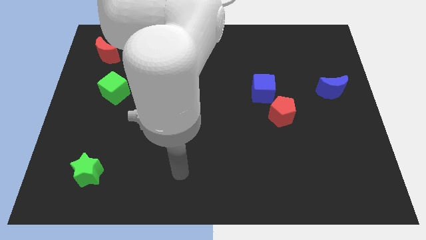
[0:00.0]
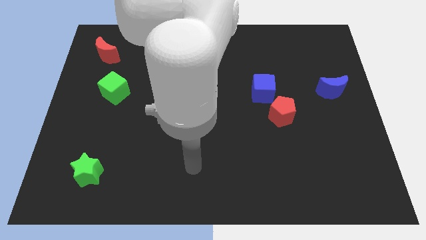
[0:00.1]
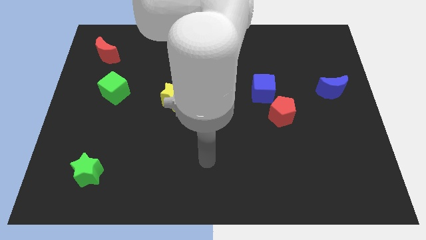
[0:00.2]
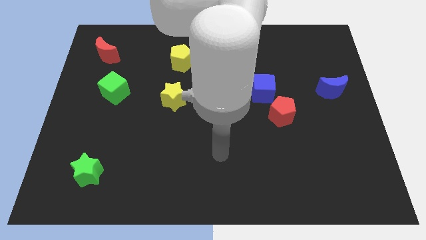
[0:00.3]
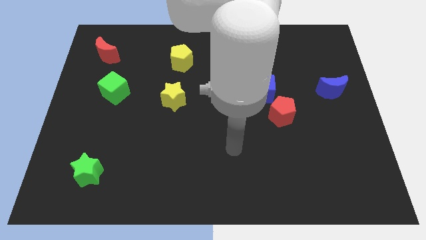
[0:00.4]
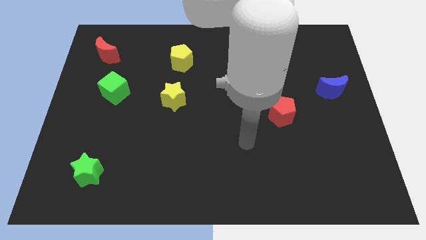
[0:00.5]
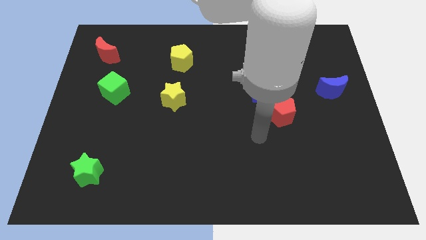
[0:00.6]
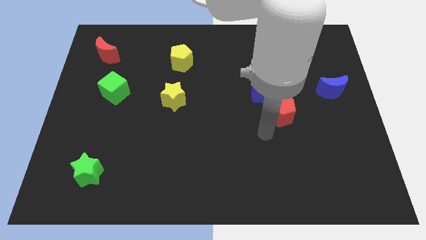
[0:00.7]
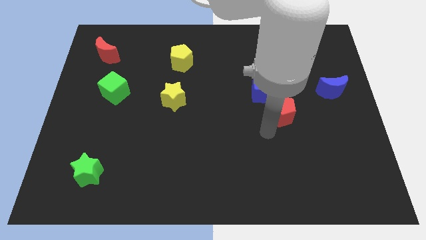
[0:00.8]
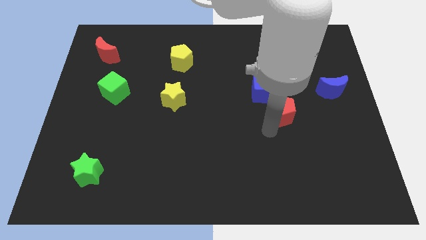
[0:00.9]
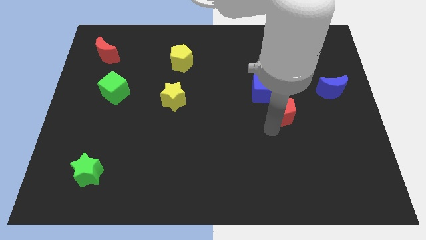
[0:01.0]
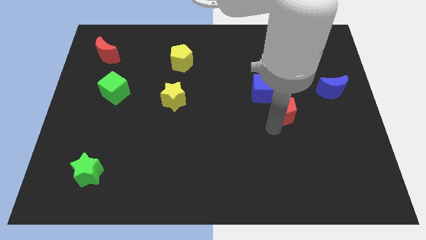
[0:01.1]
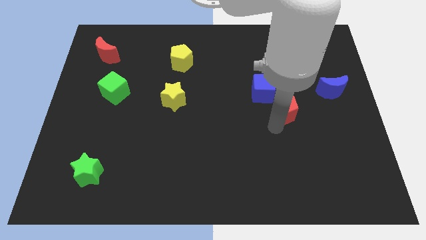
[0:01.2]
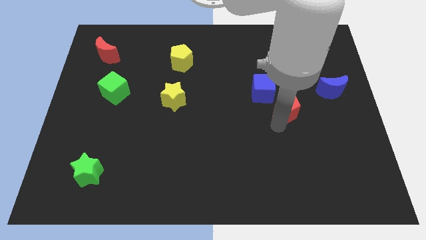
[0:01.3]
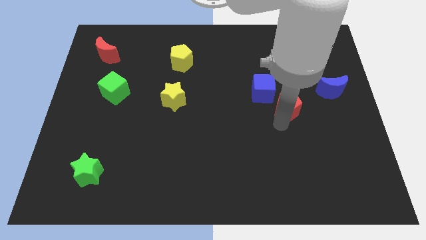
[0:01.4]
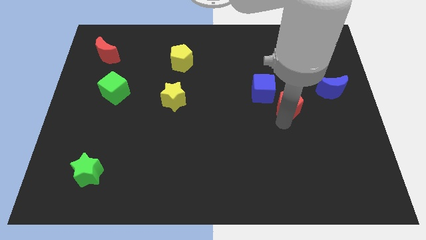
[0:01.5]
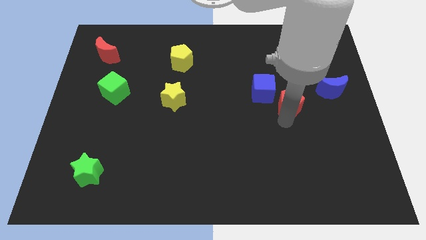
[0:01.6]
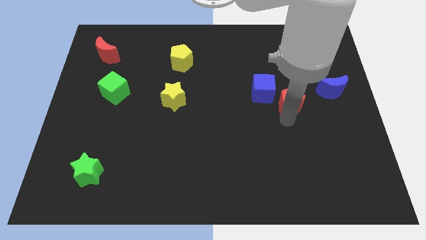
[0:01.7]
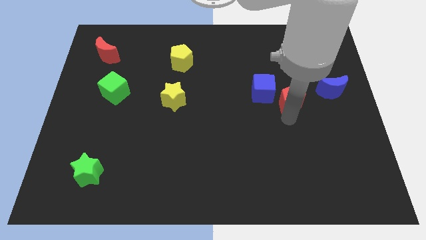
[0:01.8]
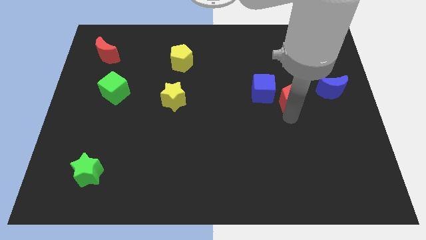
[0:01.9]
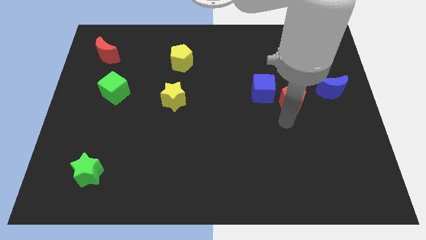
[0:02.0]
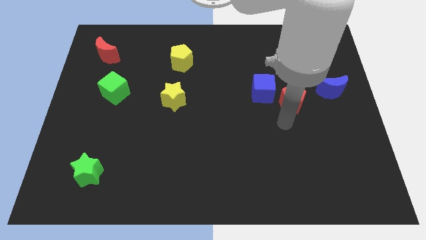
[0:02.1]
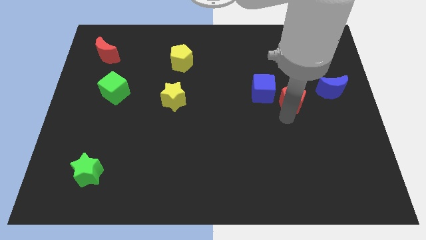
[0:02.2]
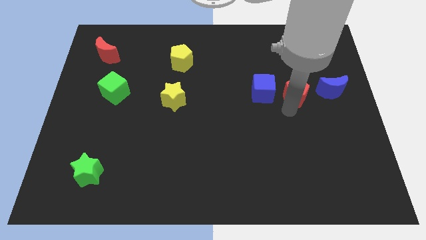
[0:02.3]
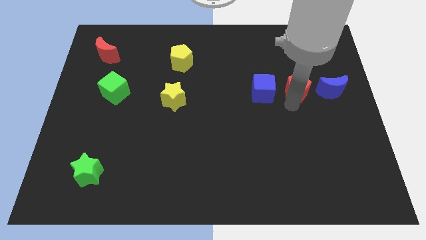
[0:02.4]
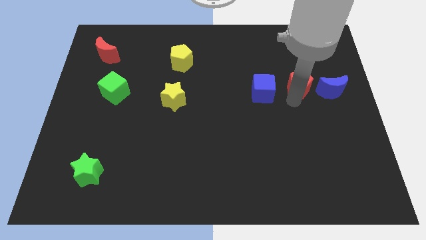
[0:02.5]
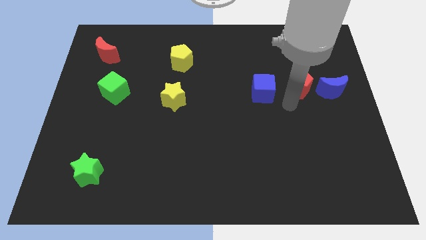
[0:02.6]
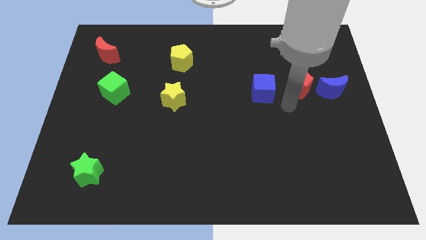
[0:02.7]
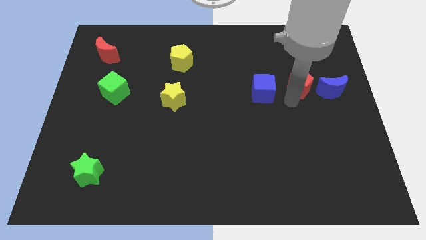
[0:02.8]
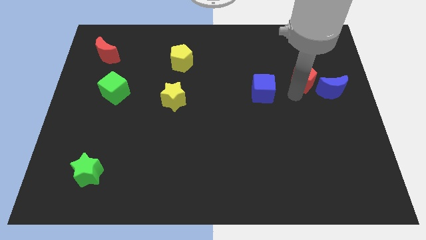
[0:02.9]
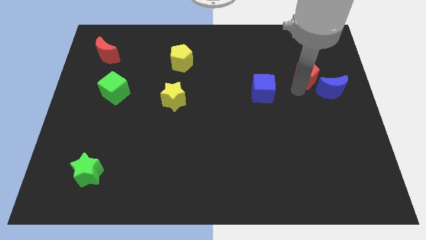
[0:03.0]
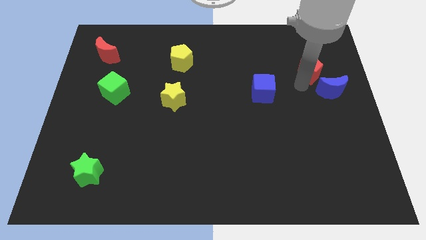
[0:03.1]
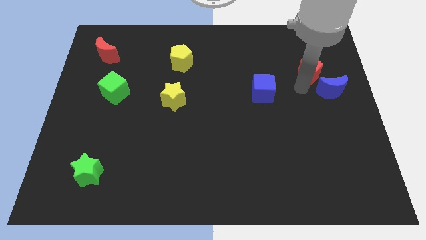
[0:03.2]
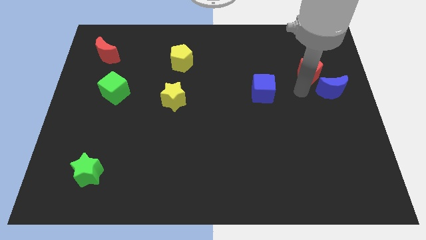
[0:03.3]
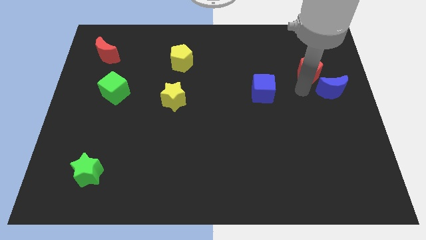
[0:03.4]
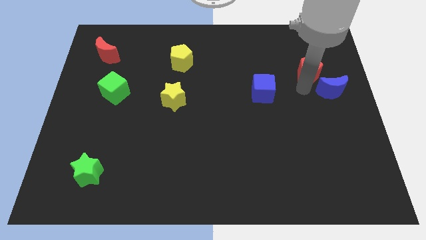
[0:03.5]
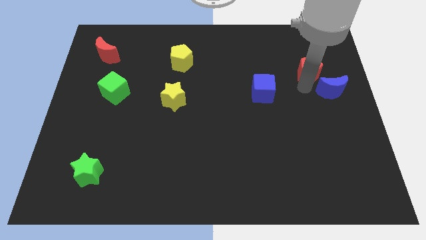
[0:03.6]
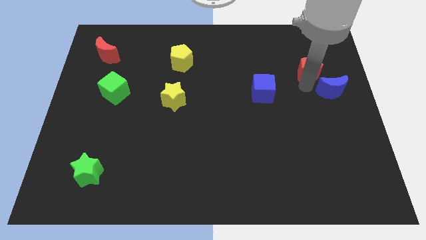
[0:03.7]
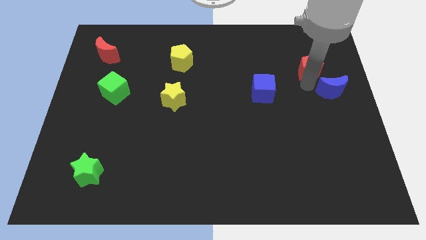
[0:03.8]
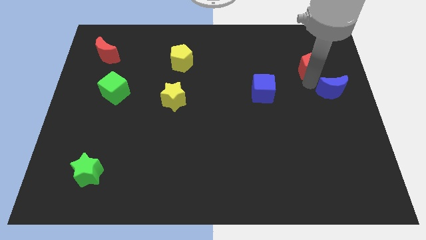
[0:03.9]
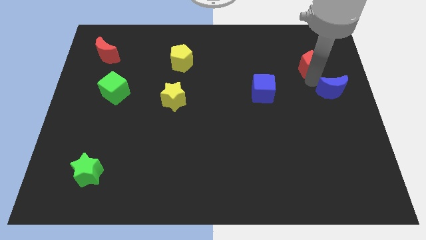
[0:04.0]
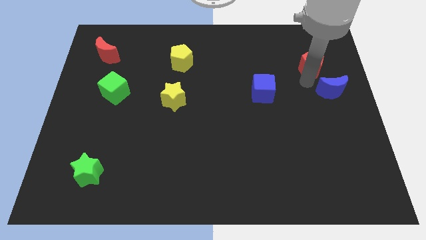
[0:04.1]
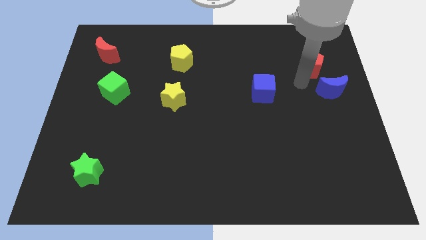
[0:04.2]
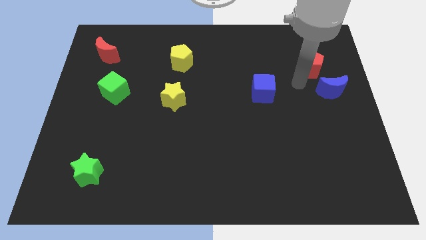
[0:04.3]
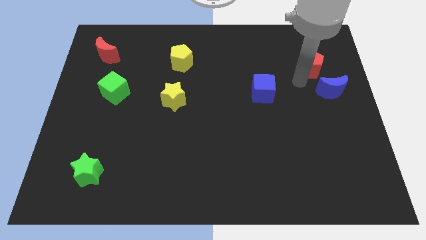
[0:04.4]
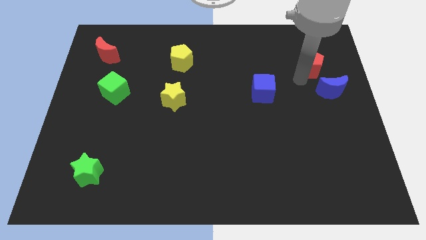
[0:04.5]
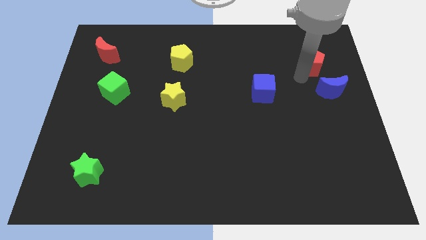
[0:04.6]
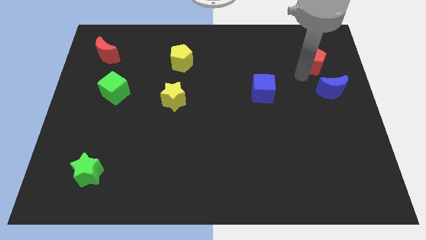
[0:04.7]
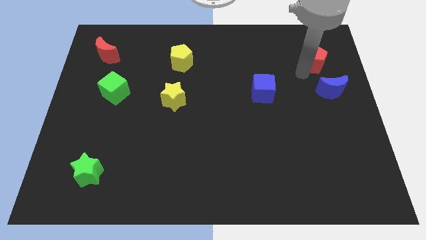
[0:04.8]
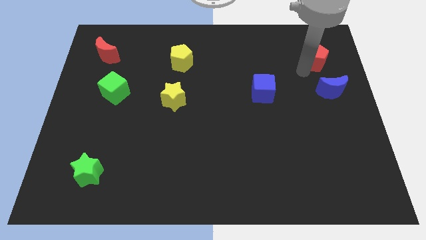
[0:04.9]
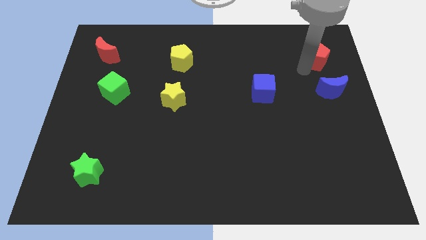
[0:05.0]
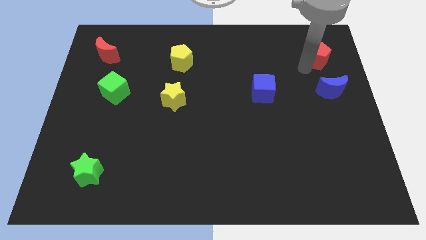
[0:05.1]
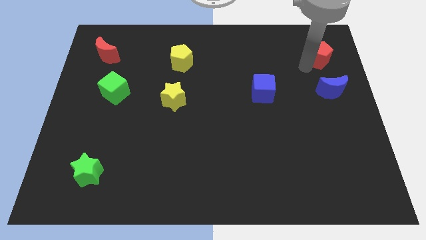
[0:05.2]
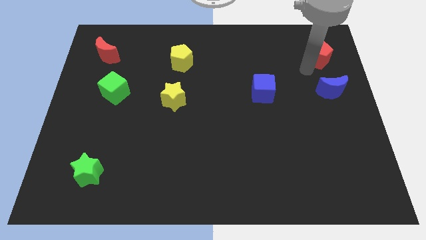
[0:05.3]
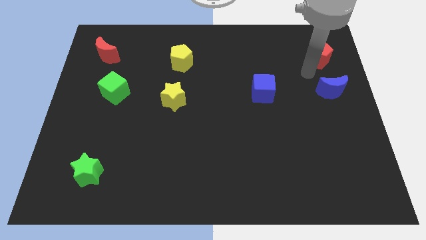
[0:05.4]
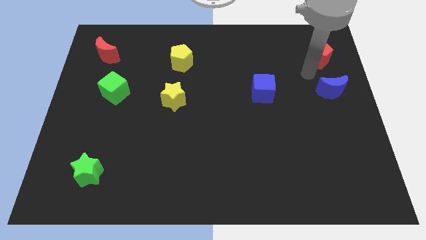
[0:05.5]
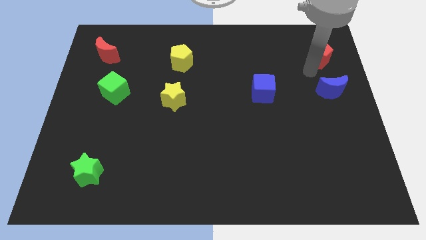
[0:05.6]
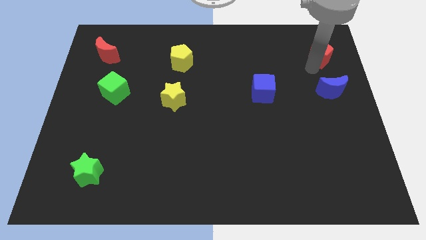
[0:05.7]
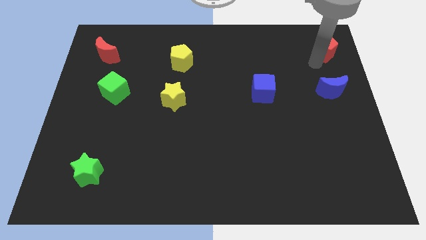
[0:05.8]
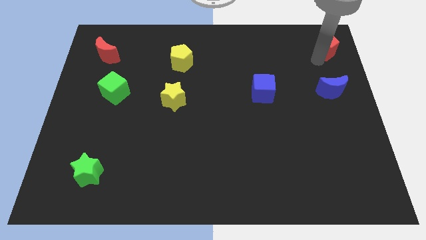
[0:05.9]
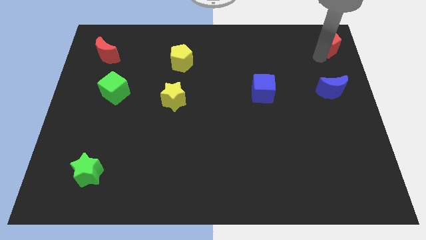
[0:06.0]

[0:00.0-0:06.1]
move the red pentagon to the upper right corner
